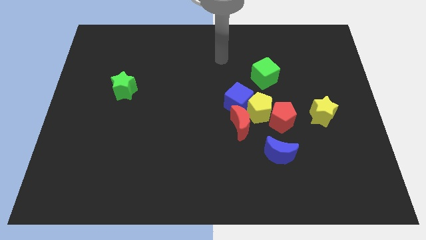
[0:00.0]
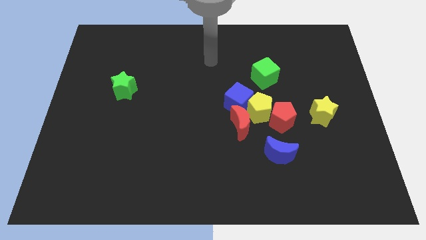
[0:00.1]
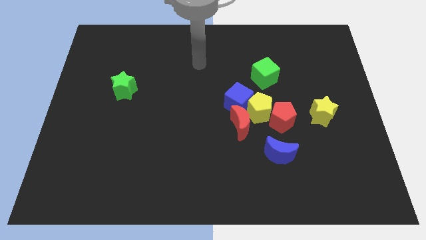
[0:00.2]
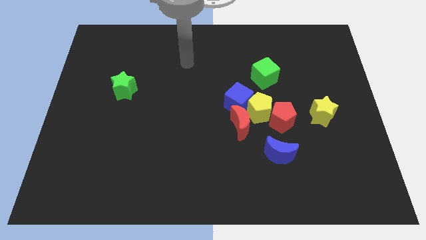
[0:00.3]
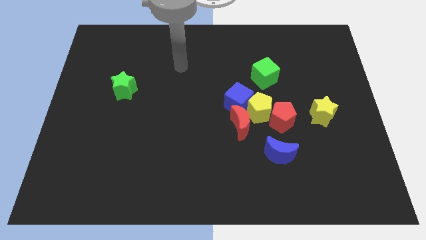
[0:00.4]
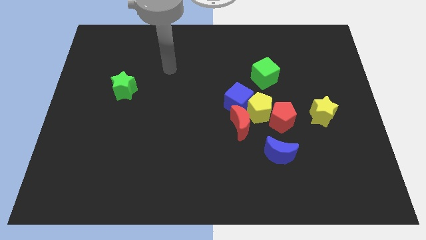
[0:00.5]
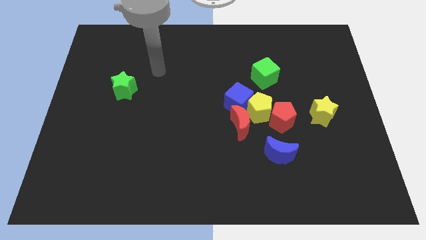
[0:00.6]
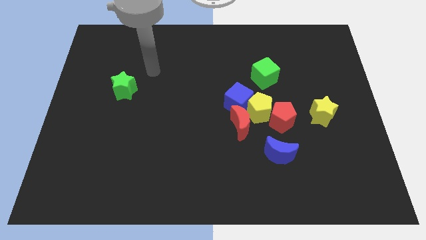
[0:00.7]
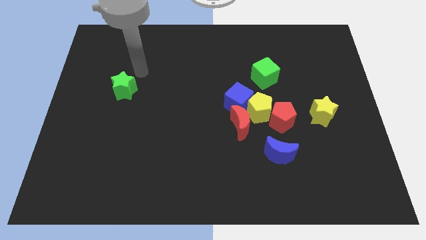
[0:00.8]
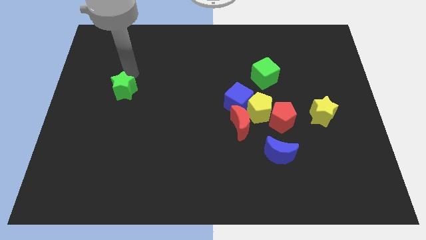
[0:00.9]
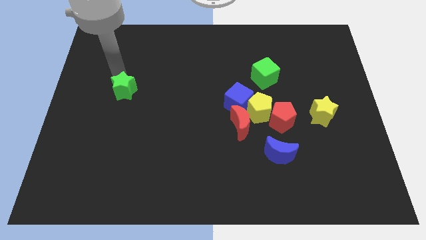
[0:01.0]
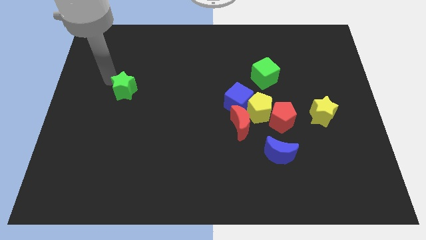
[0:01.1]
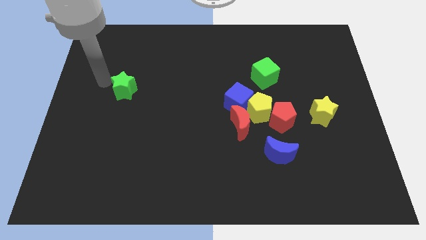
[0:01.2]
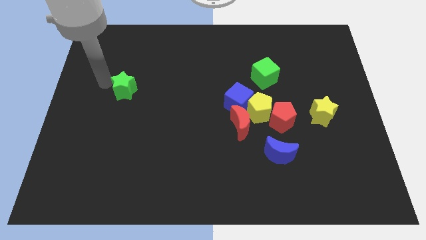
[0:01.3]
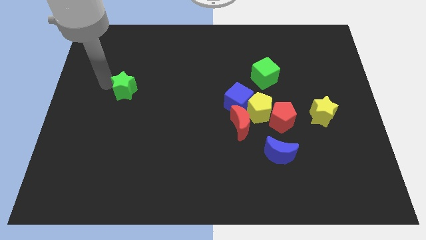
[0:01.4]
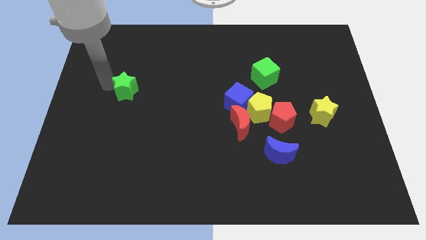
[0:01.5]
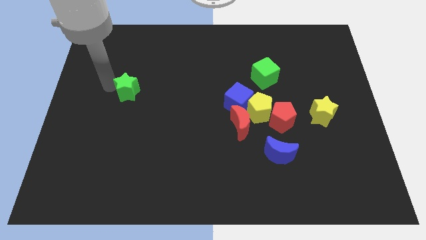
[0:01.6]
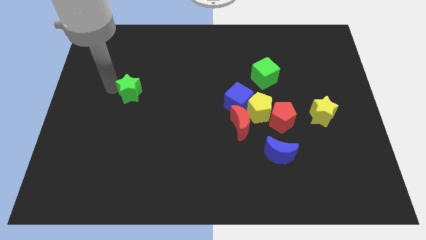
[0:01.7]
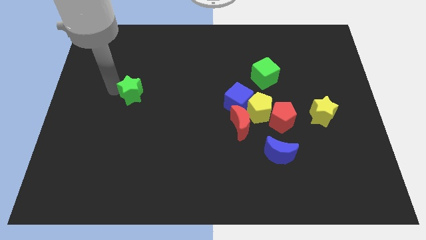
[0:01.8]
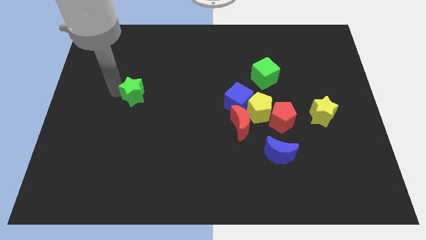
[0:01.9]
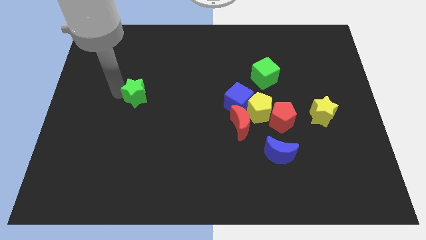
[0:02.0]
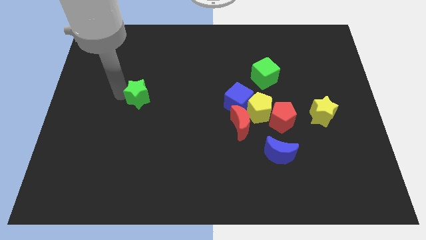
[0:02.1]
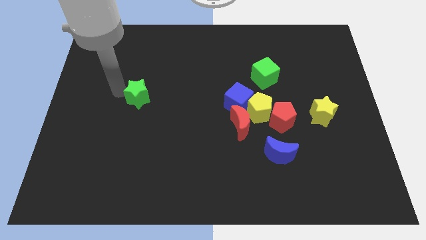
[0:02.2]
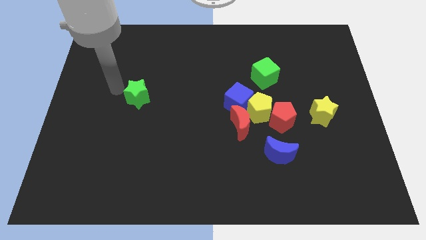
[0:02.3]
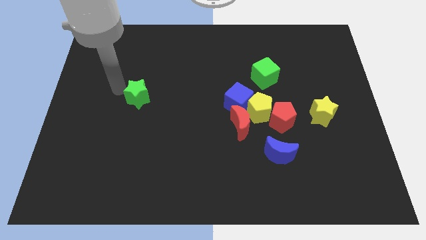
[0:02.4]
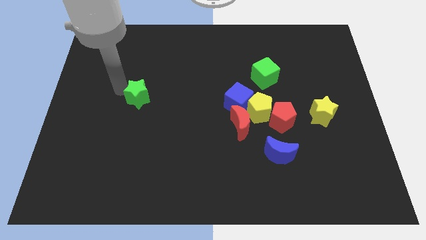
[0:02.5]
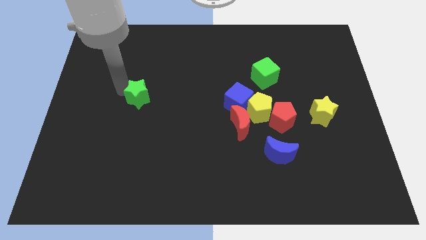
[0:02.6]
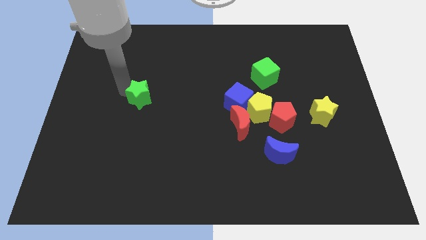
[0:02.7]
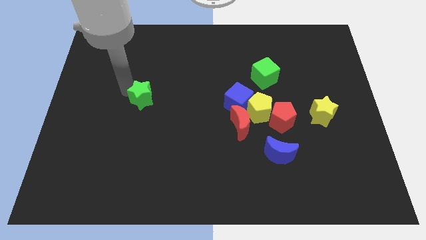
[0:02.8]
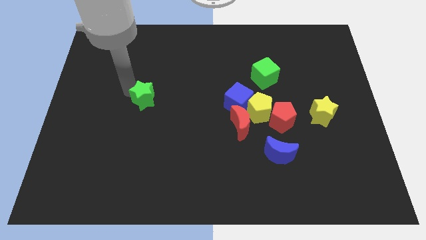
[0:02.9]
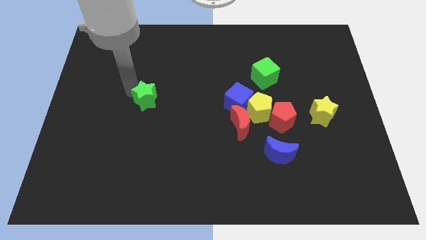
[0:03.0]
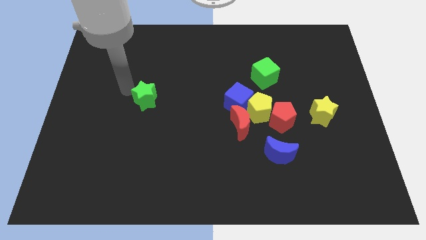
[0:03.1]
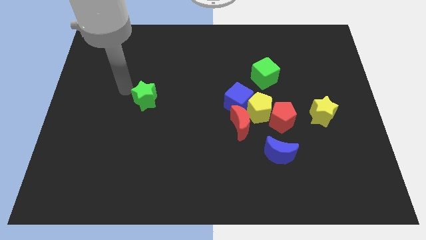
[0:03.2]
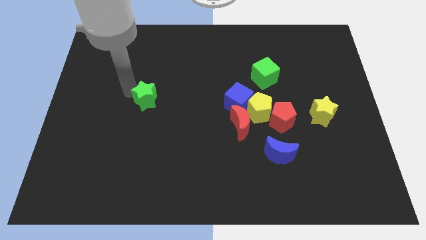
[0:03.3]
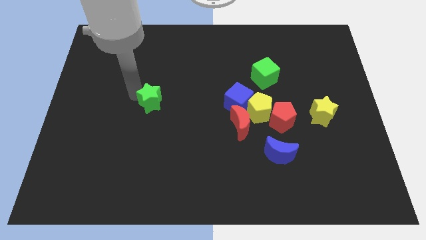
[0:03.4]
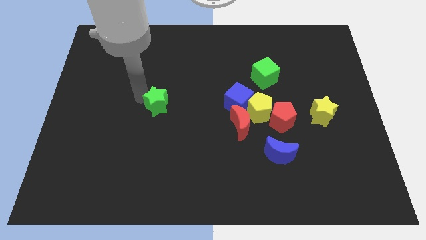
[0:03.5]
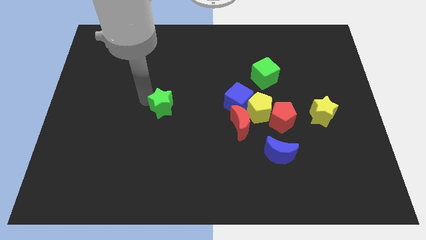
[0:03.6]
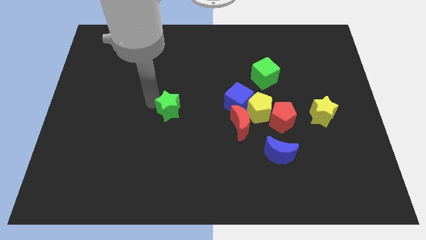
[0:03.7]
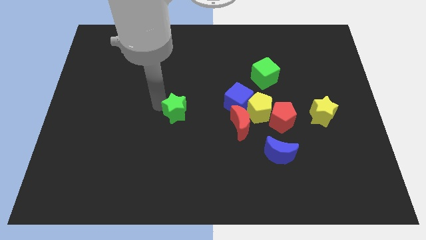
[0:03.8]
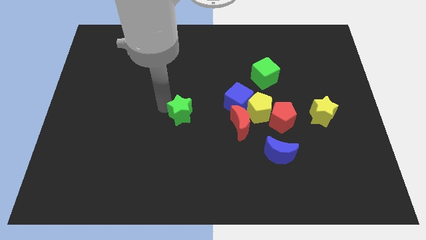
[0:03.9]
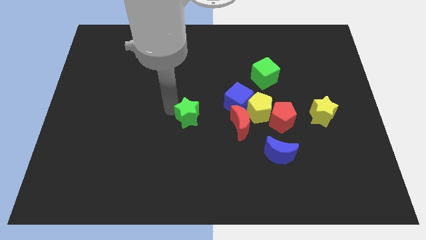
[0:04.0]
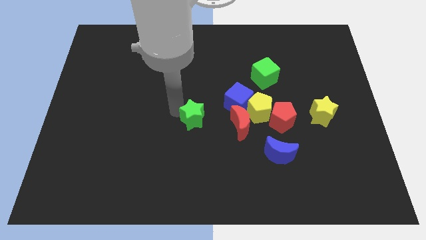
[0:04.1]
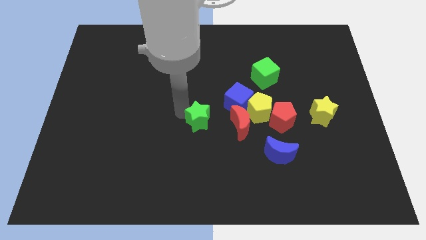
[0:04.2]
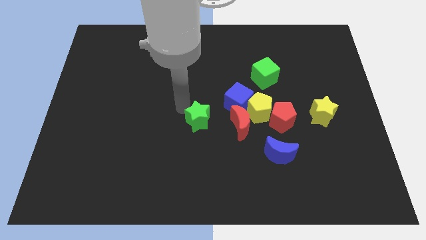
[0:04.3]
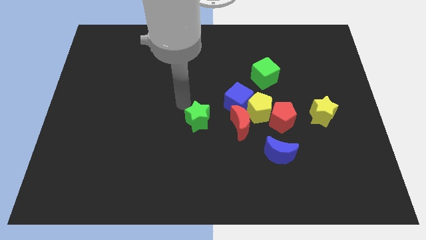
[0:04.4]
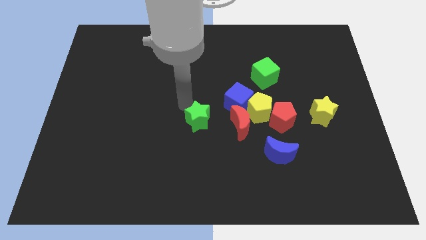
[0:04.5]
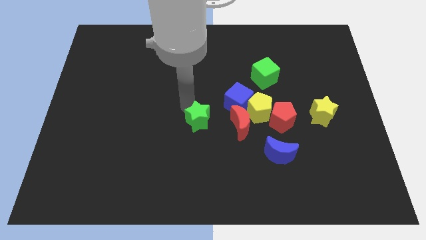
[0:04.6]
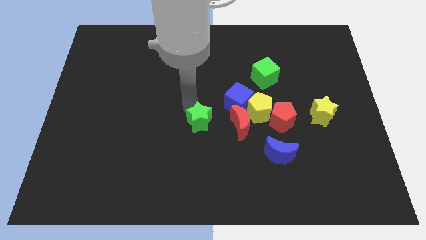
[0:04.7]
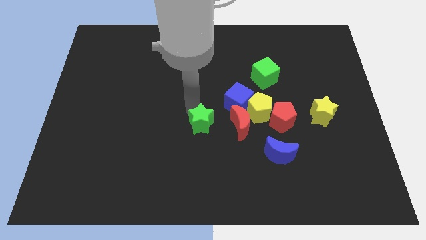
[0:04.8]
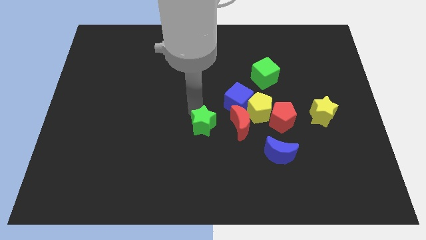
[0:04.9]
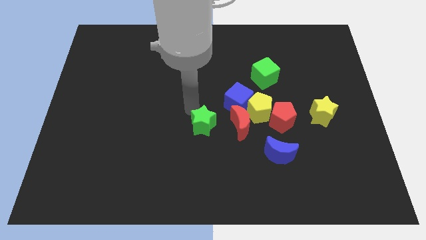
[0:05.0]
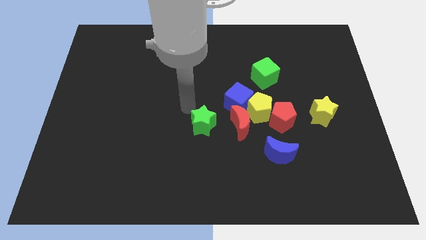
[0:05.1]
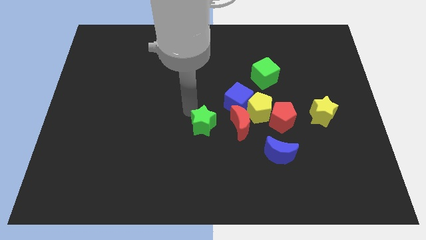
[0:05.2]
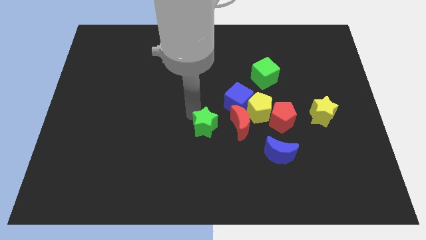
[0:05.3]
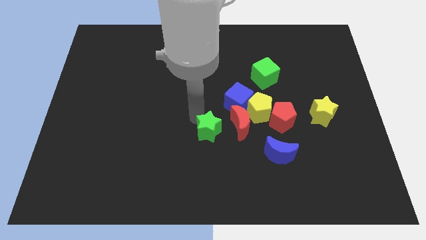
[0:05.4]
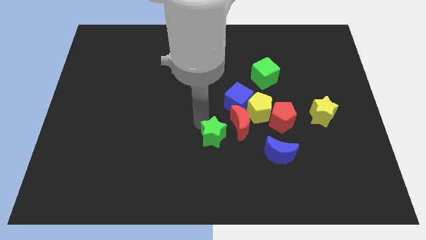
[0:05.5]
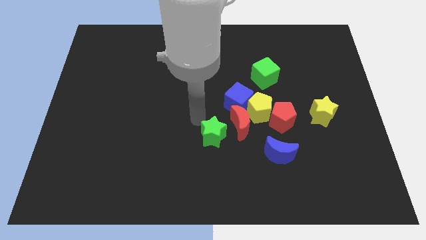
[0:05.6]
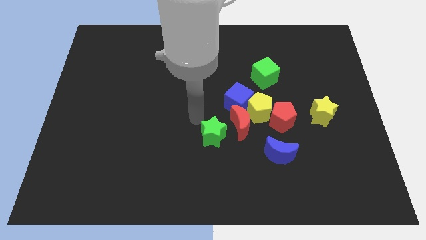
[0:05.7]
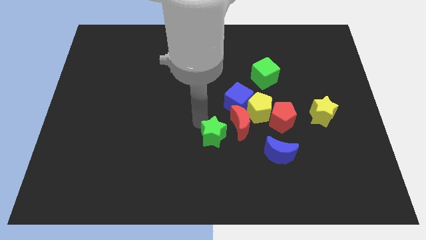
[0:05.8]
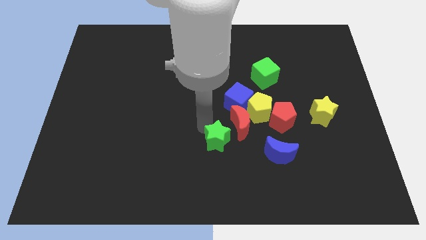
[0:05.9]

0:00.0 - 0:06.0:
put the green star to the left of the blue moon

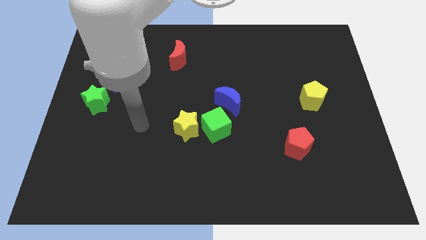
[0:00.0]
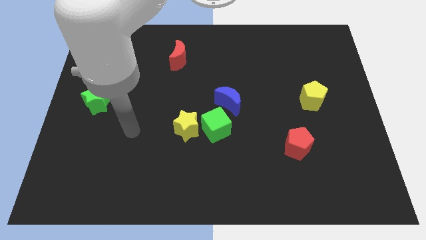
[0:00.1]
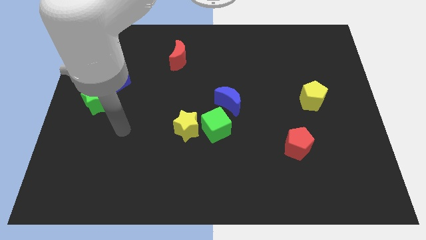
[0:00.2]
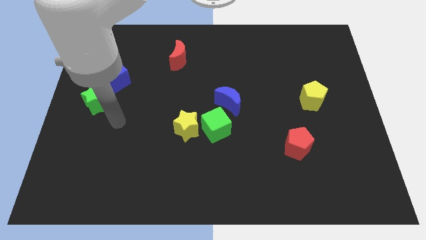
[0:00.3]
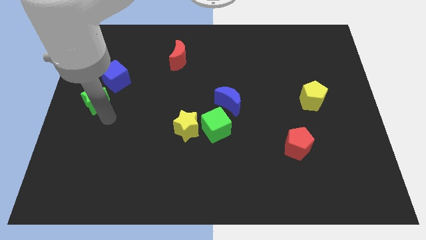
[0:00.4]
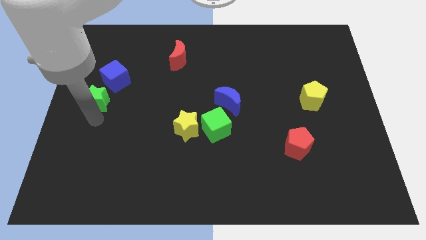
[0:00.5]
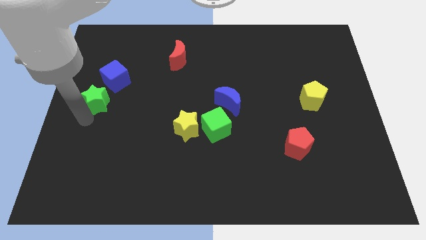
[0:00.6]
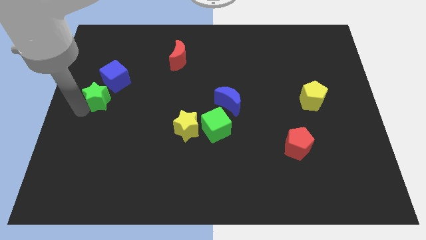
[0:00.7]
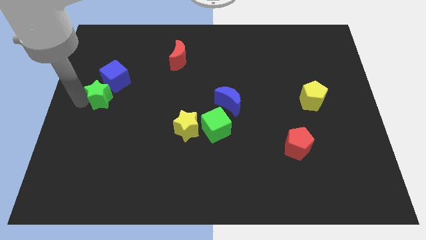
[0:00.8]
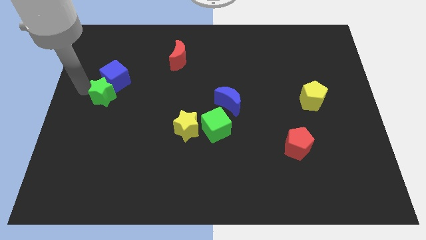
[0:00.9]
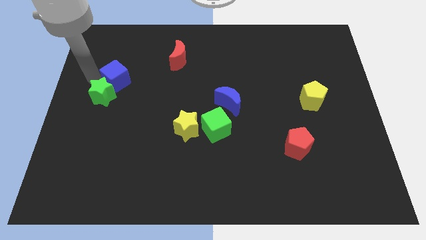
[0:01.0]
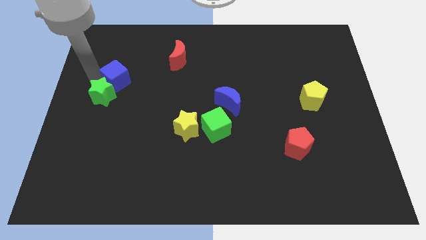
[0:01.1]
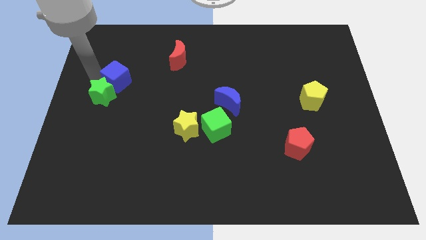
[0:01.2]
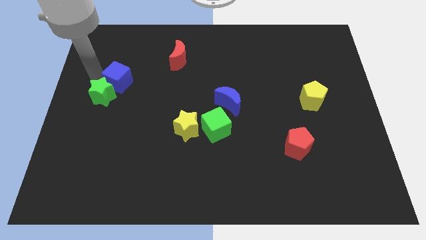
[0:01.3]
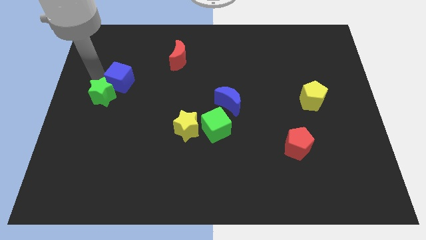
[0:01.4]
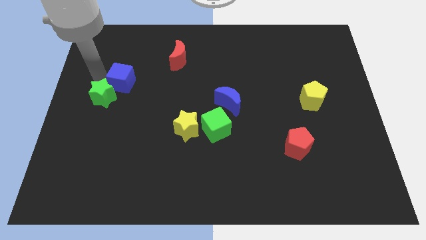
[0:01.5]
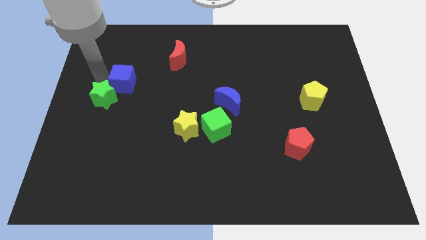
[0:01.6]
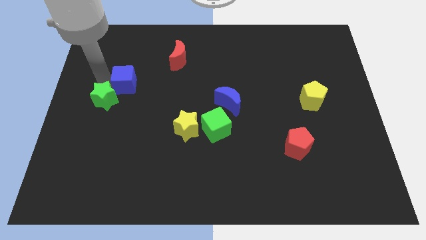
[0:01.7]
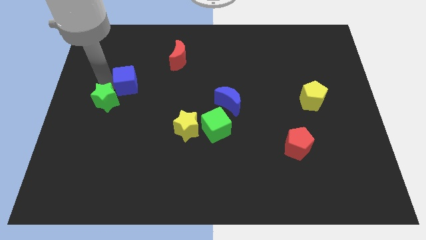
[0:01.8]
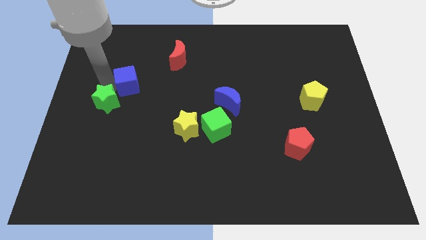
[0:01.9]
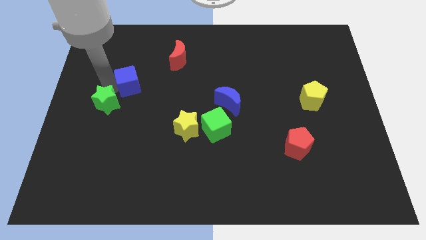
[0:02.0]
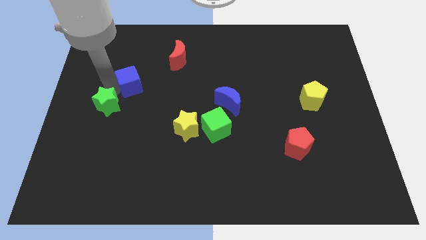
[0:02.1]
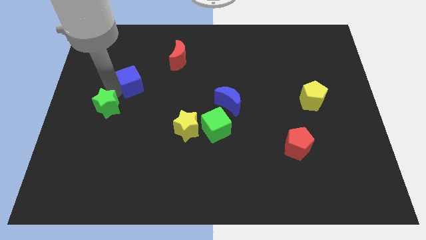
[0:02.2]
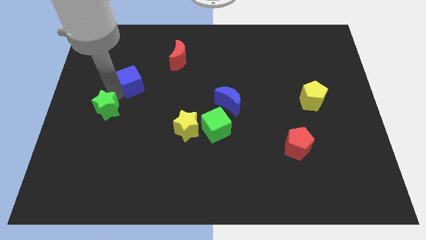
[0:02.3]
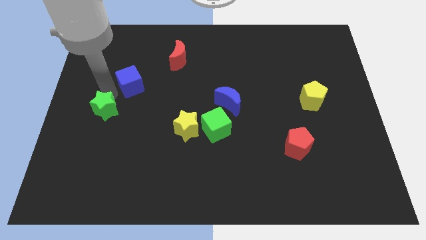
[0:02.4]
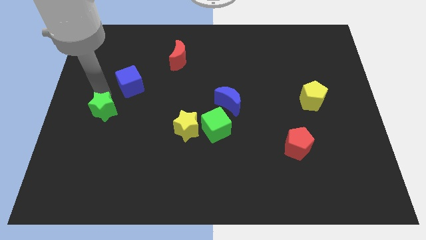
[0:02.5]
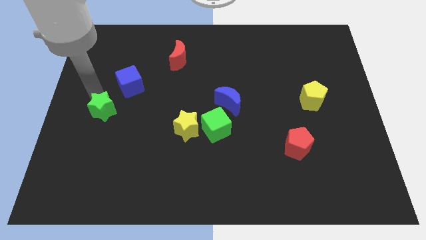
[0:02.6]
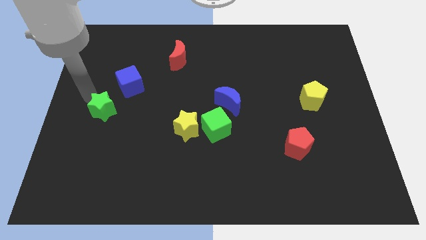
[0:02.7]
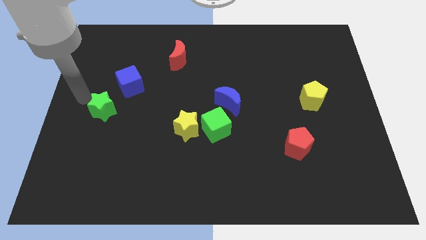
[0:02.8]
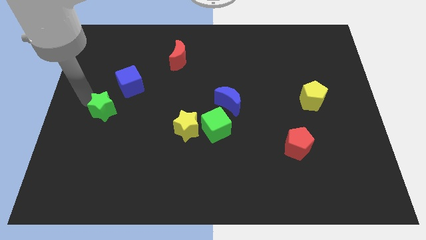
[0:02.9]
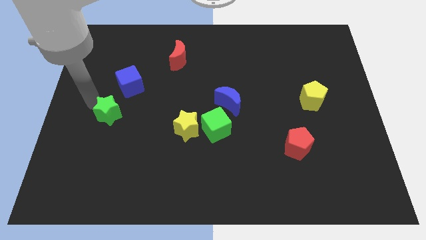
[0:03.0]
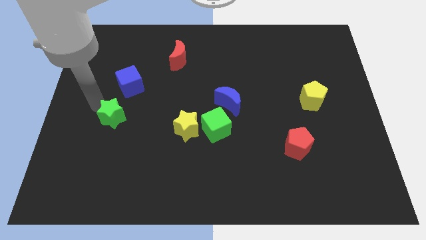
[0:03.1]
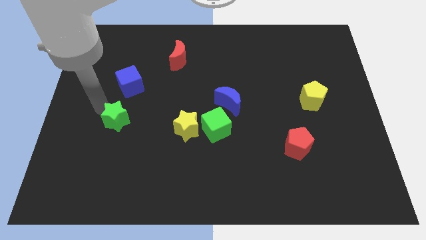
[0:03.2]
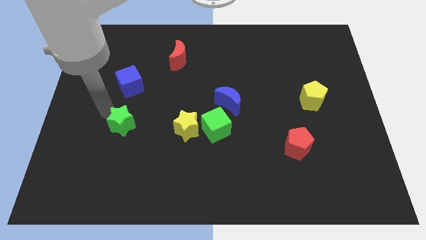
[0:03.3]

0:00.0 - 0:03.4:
push the green star just left of the yellow star
